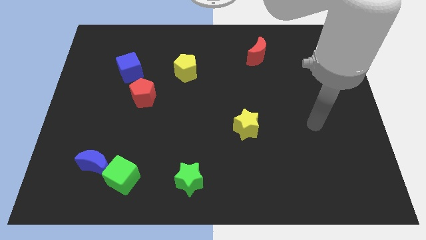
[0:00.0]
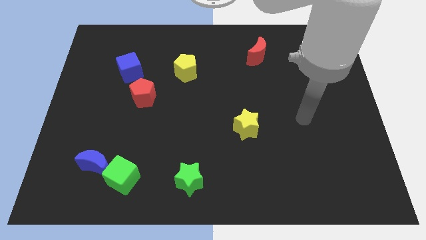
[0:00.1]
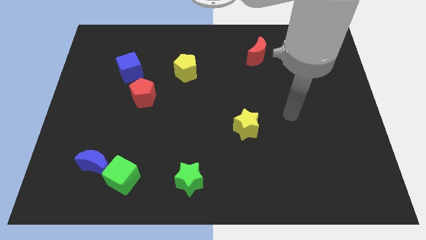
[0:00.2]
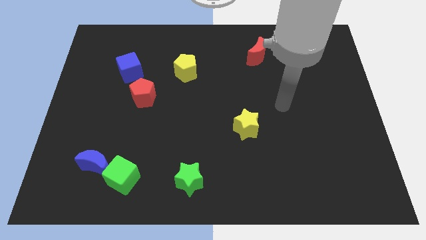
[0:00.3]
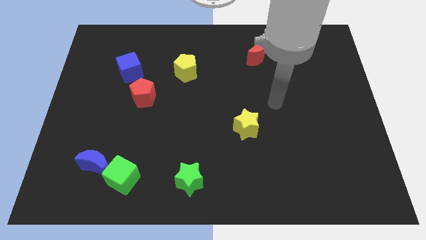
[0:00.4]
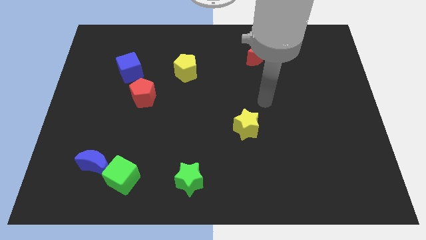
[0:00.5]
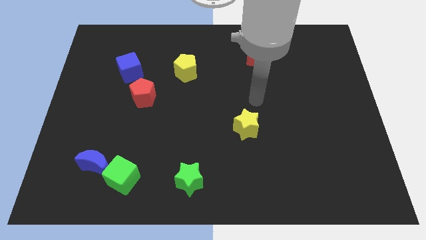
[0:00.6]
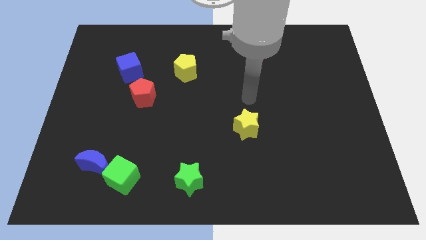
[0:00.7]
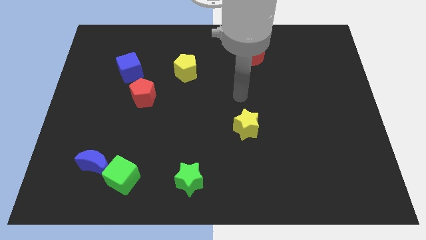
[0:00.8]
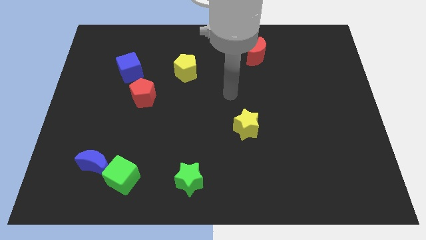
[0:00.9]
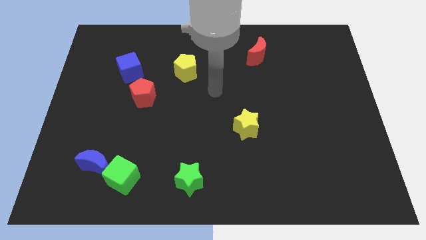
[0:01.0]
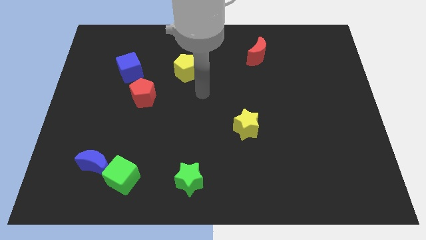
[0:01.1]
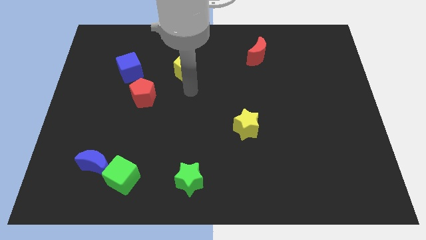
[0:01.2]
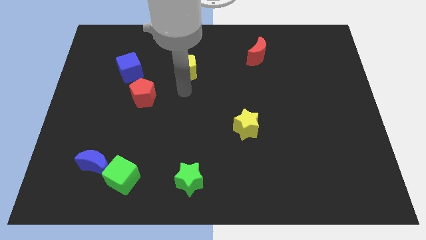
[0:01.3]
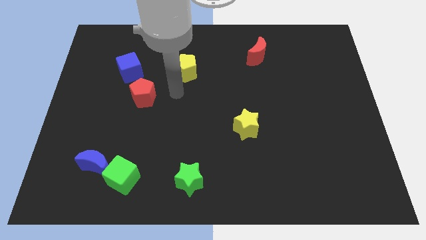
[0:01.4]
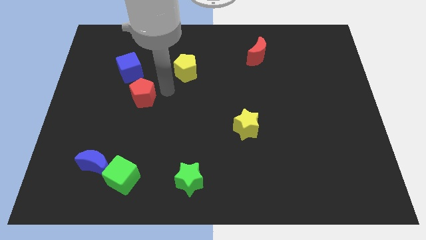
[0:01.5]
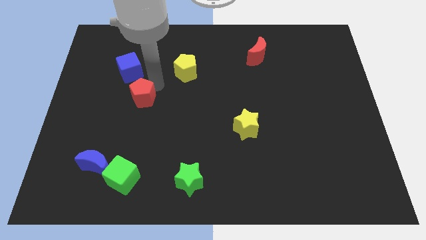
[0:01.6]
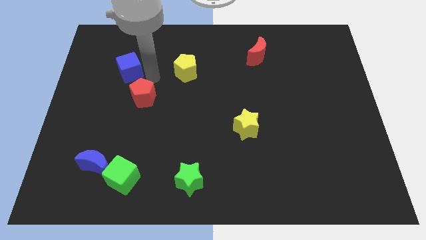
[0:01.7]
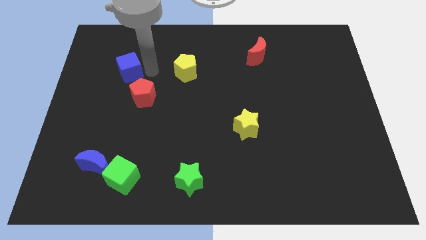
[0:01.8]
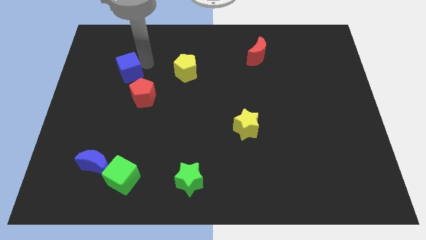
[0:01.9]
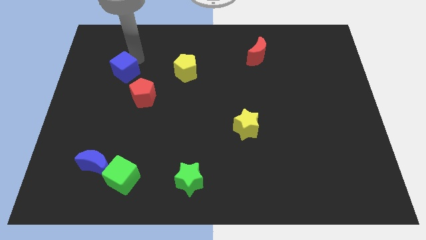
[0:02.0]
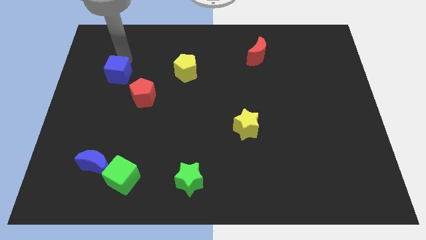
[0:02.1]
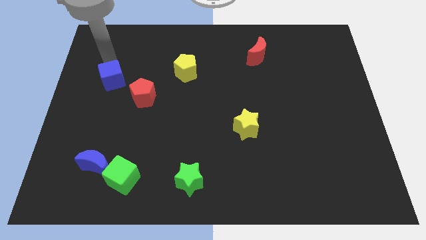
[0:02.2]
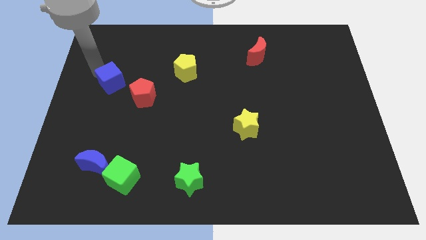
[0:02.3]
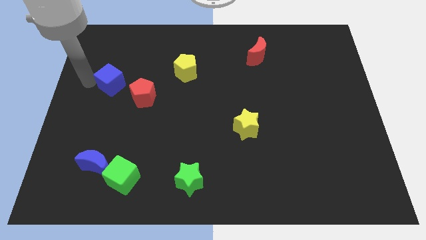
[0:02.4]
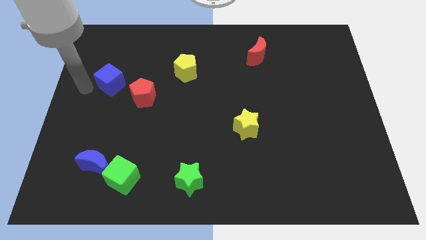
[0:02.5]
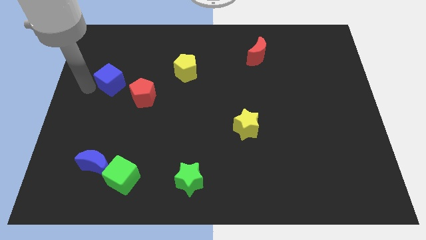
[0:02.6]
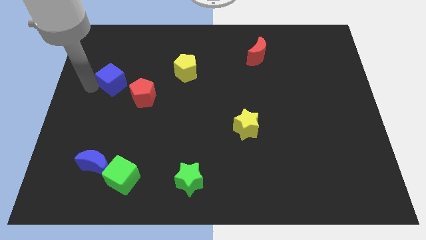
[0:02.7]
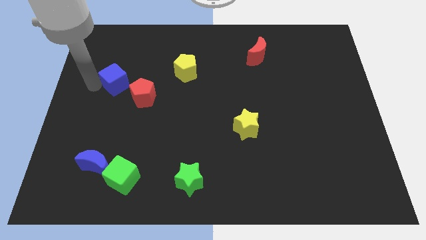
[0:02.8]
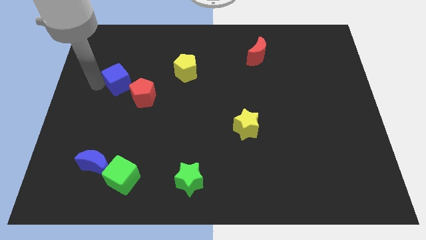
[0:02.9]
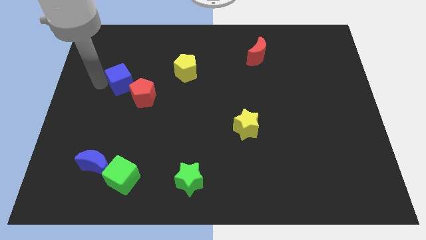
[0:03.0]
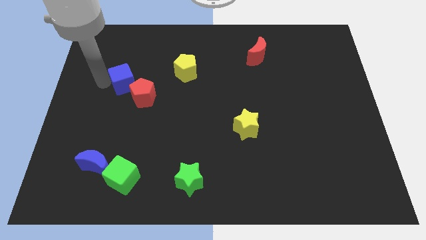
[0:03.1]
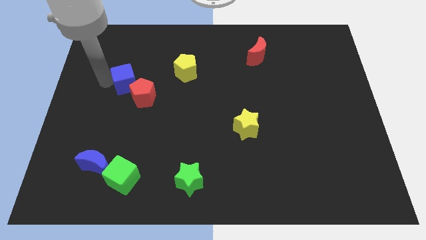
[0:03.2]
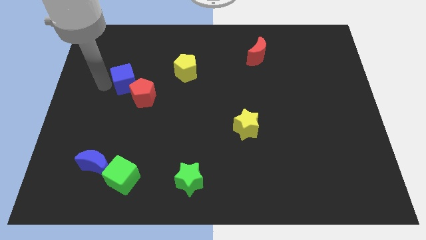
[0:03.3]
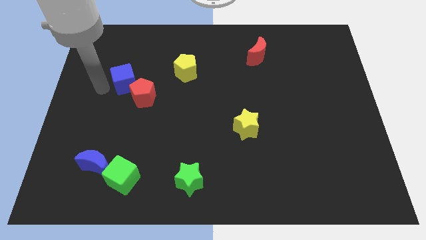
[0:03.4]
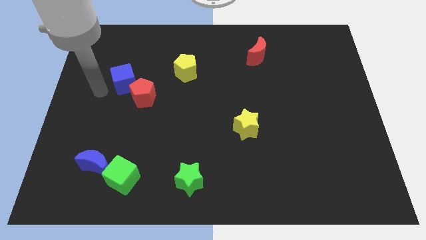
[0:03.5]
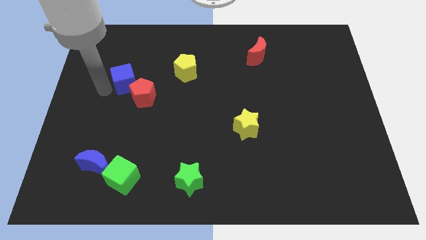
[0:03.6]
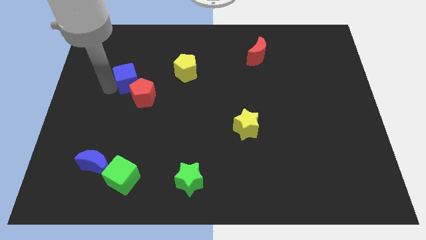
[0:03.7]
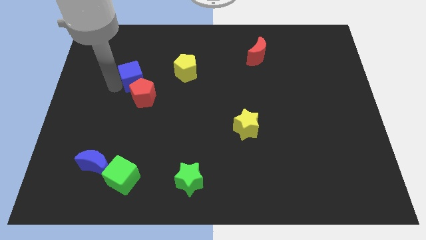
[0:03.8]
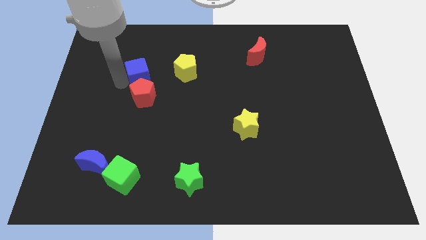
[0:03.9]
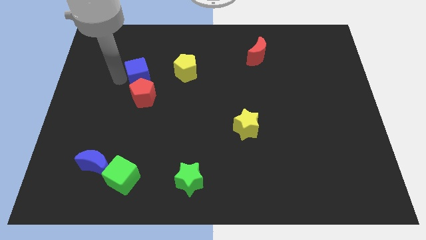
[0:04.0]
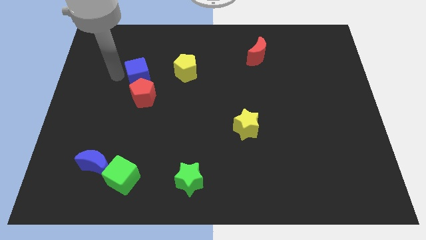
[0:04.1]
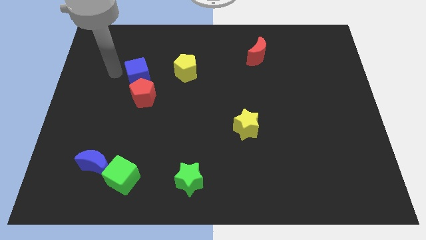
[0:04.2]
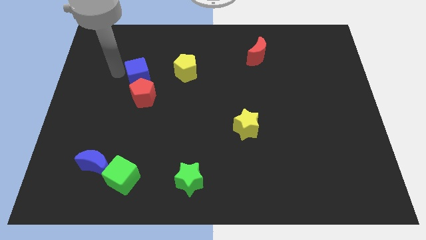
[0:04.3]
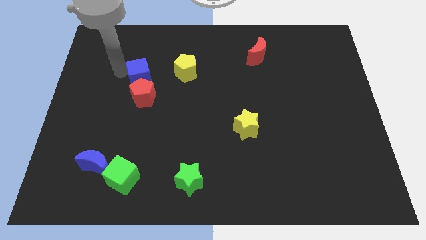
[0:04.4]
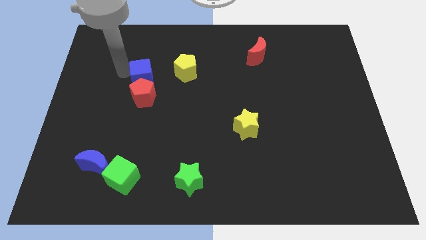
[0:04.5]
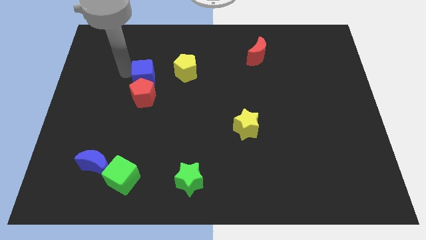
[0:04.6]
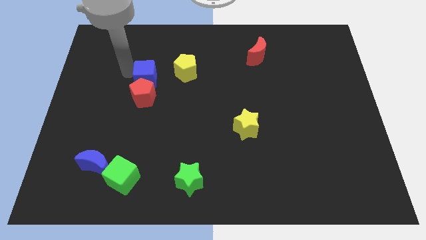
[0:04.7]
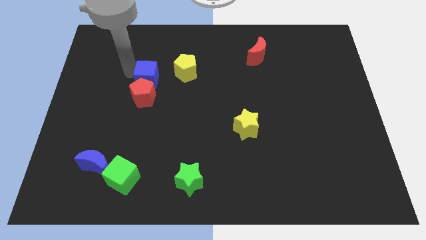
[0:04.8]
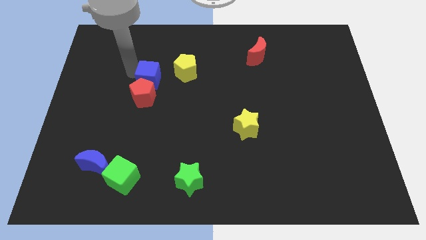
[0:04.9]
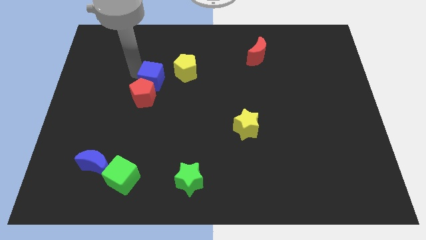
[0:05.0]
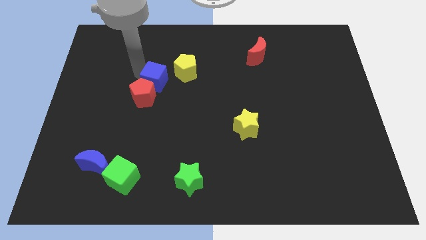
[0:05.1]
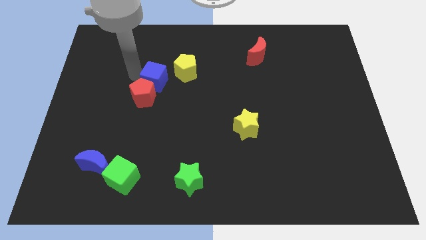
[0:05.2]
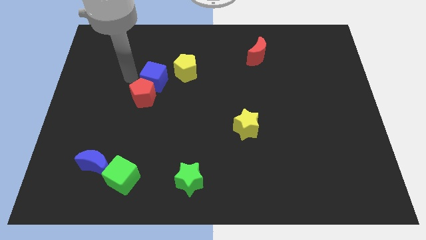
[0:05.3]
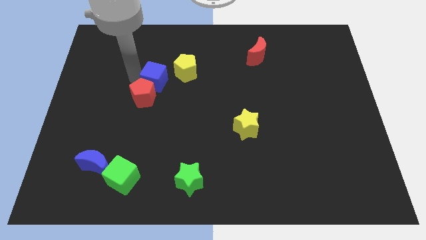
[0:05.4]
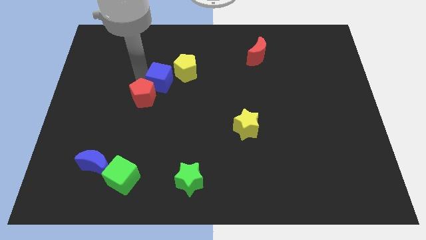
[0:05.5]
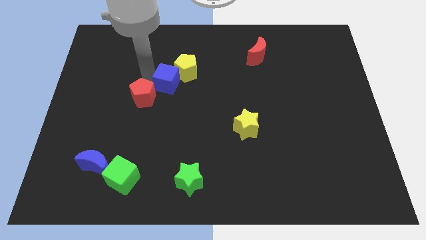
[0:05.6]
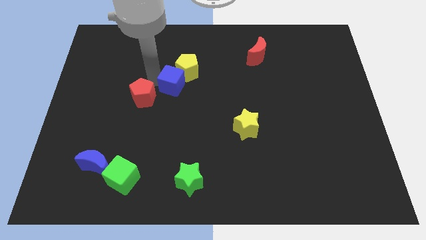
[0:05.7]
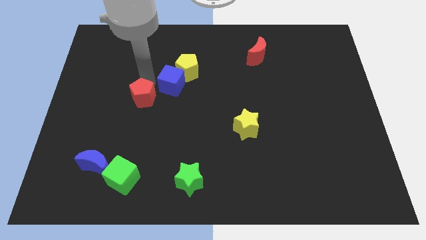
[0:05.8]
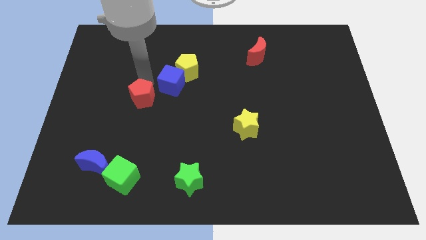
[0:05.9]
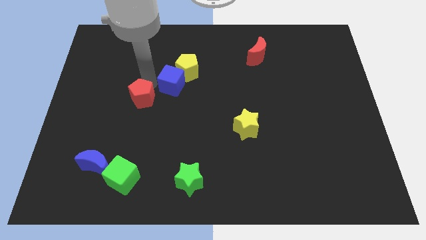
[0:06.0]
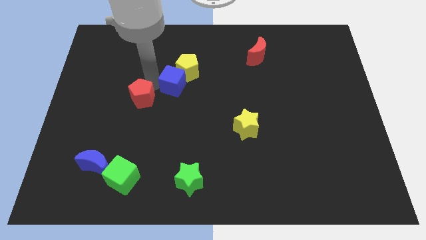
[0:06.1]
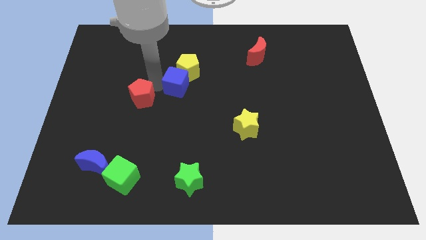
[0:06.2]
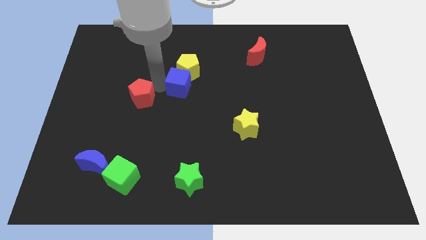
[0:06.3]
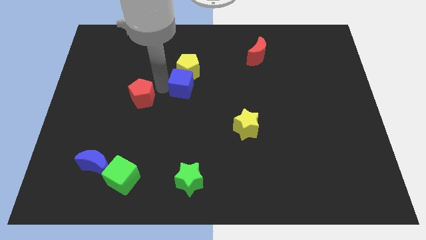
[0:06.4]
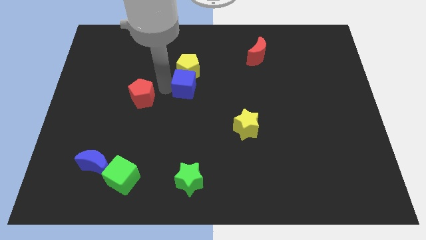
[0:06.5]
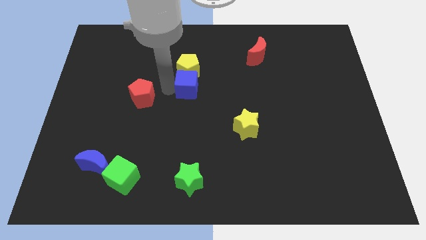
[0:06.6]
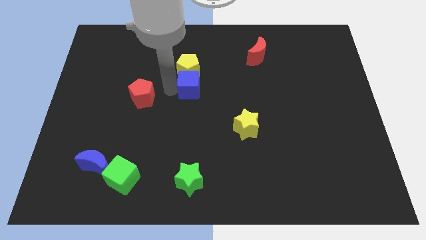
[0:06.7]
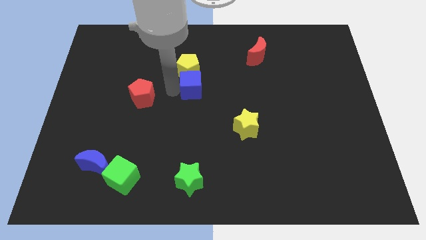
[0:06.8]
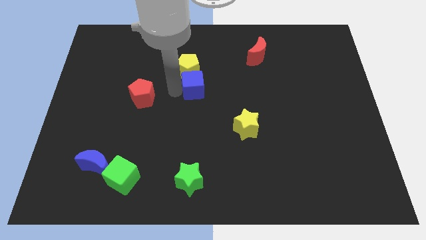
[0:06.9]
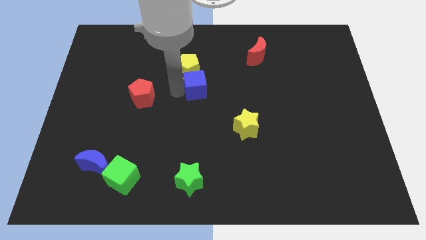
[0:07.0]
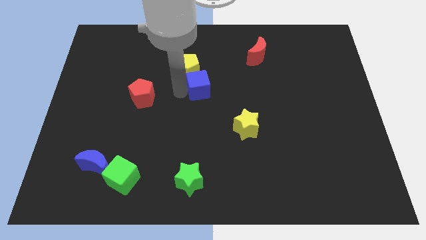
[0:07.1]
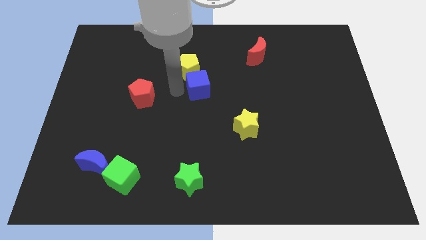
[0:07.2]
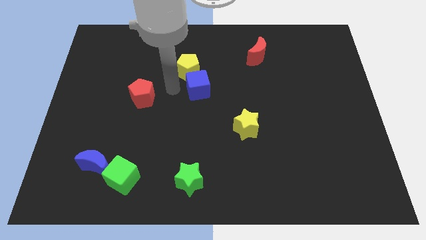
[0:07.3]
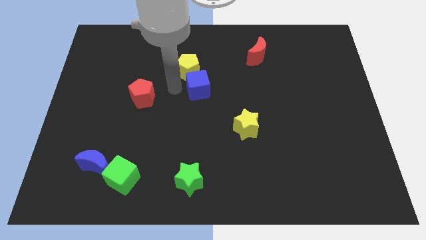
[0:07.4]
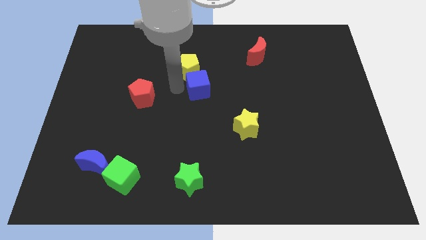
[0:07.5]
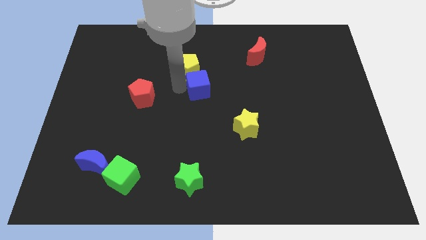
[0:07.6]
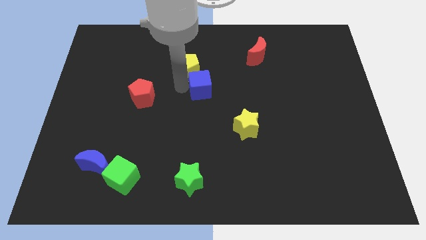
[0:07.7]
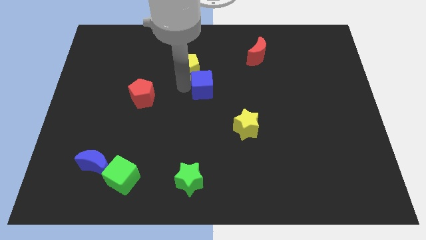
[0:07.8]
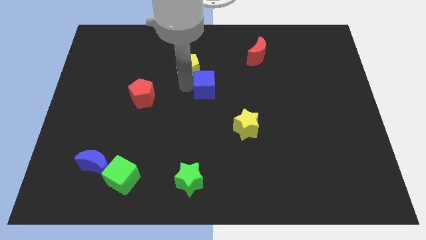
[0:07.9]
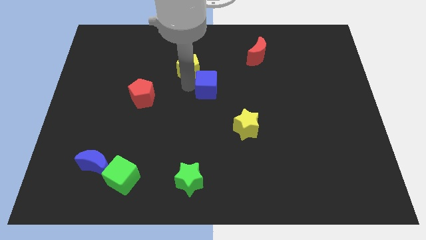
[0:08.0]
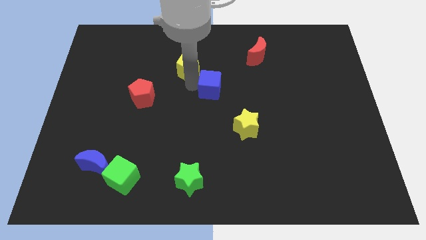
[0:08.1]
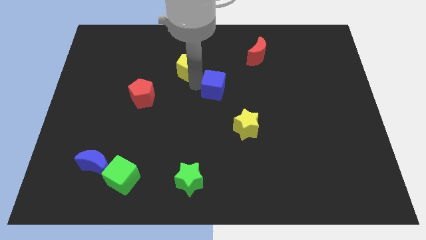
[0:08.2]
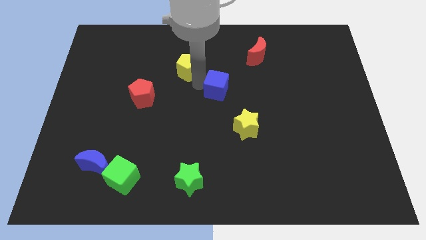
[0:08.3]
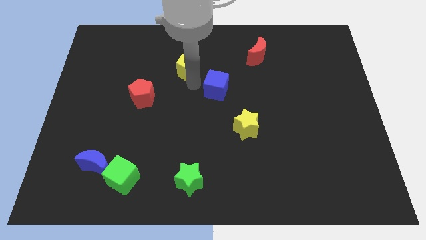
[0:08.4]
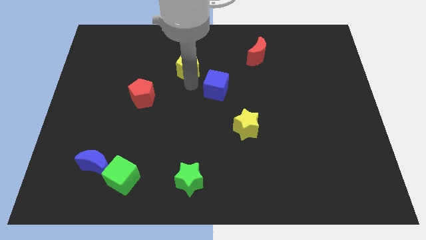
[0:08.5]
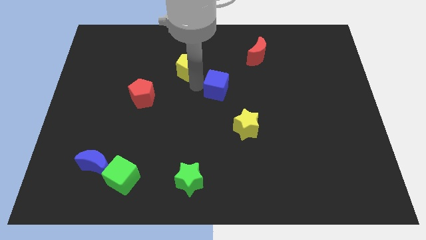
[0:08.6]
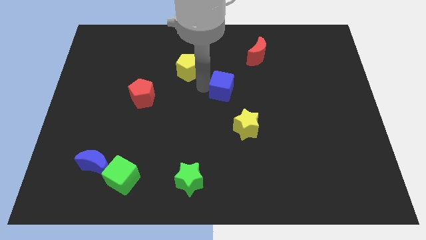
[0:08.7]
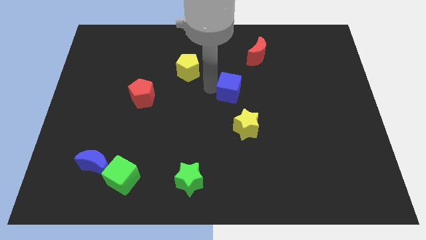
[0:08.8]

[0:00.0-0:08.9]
put the blue cube above the yellow star
